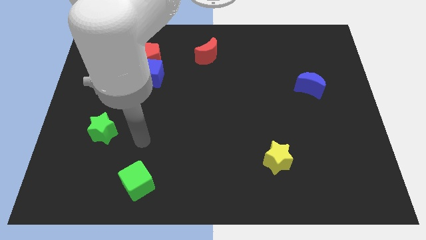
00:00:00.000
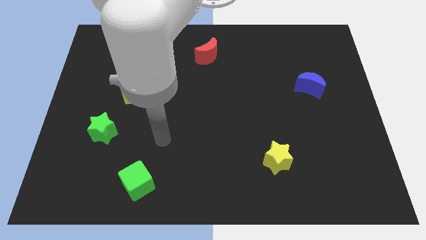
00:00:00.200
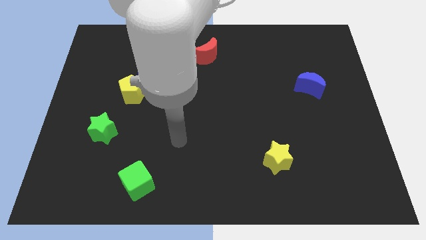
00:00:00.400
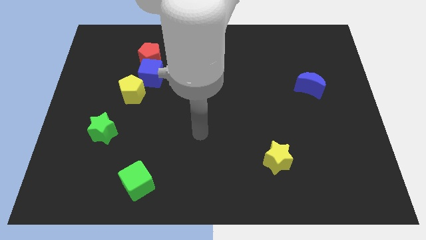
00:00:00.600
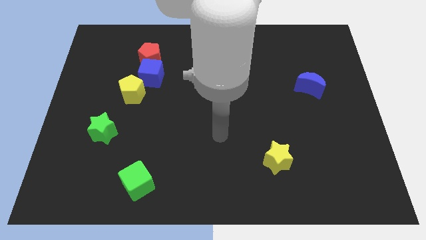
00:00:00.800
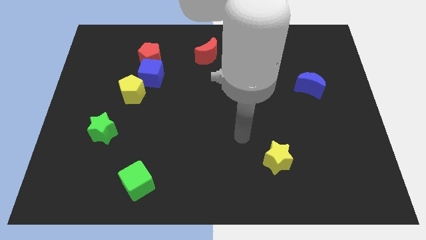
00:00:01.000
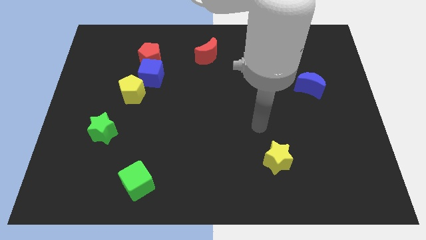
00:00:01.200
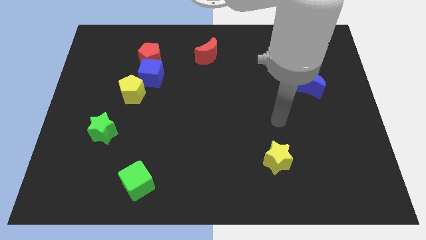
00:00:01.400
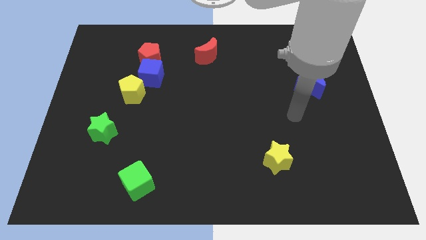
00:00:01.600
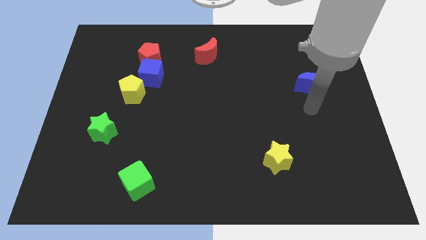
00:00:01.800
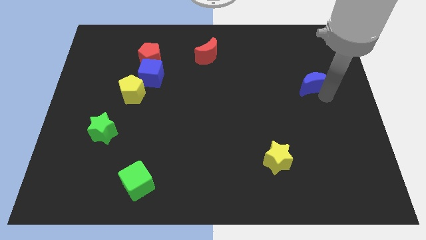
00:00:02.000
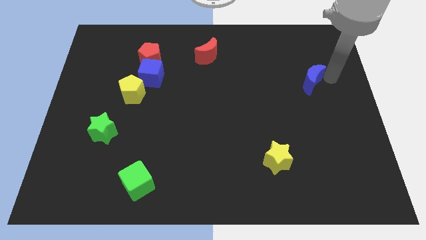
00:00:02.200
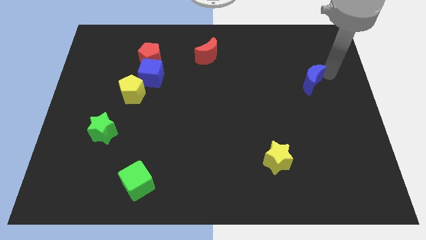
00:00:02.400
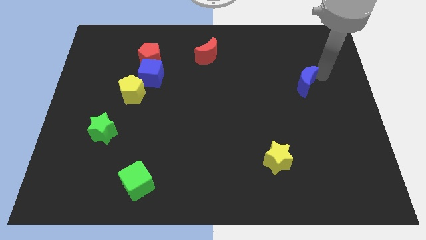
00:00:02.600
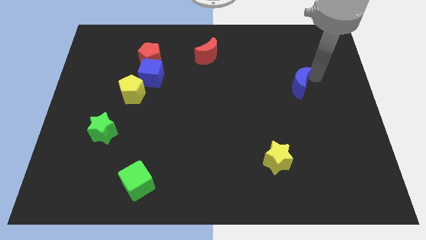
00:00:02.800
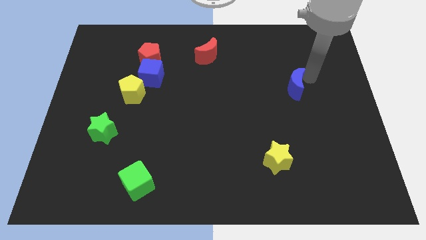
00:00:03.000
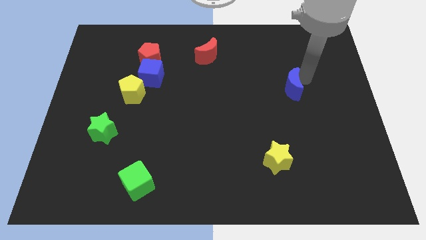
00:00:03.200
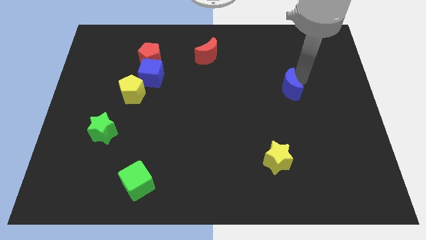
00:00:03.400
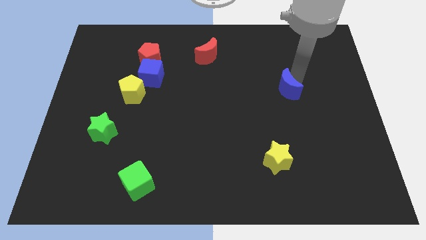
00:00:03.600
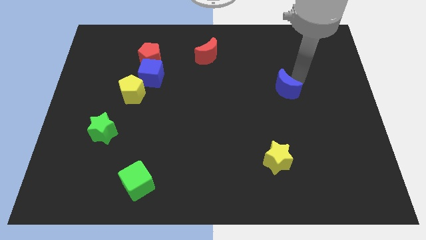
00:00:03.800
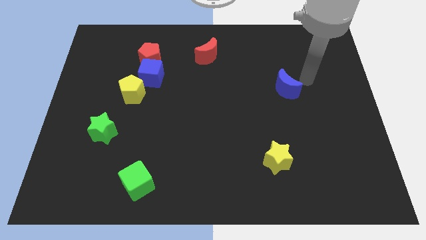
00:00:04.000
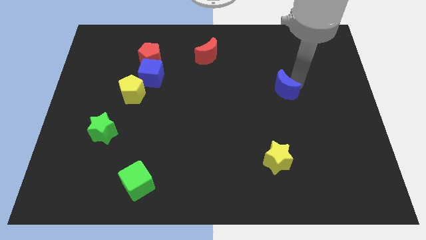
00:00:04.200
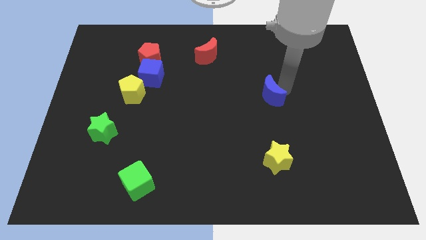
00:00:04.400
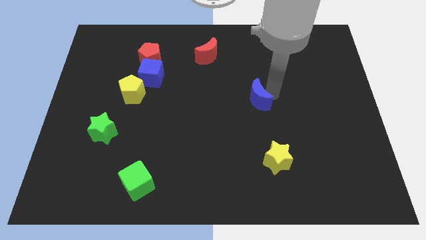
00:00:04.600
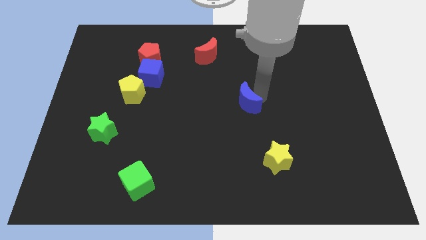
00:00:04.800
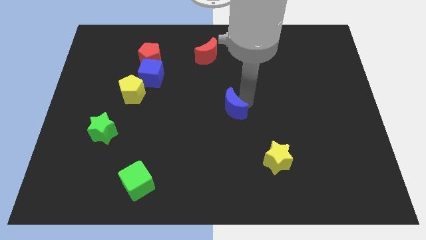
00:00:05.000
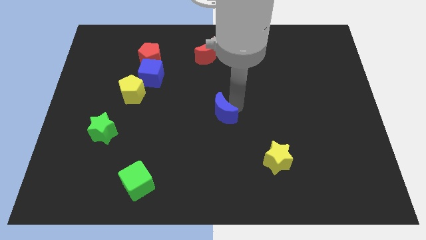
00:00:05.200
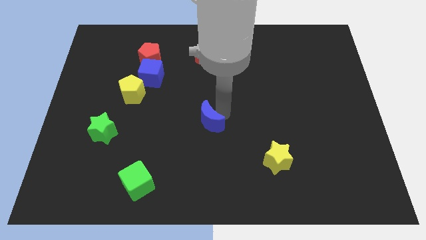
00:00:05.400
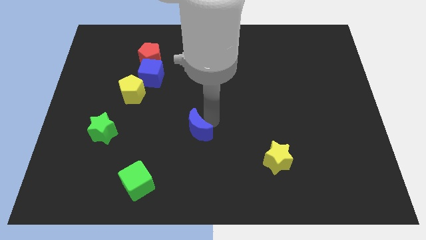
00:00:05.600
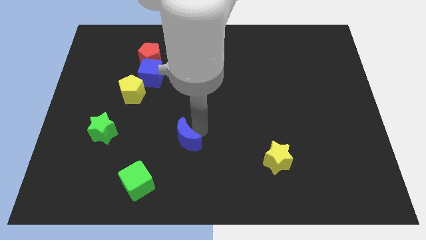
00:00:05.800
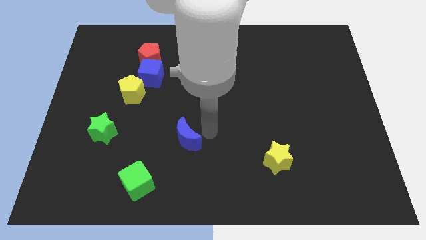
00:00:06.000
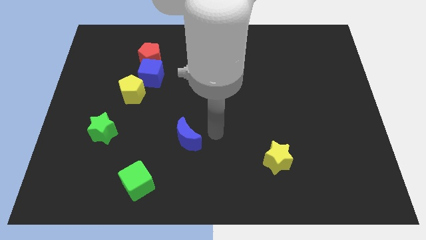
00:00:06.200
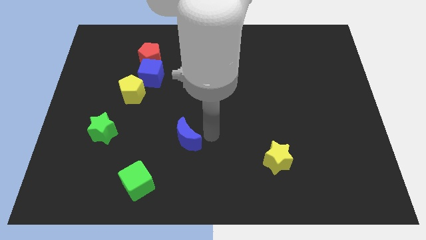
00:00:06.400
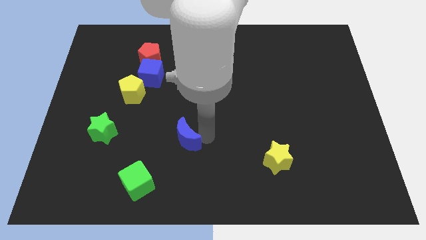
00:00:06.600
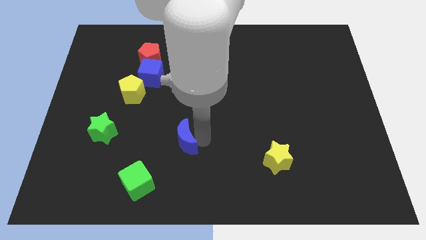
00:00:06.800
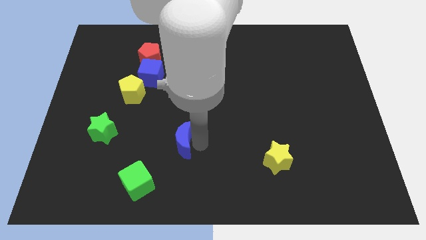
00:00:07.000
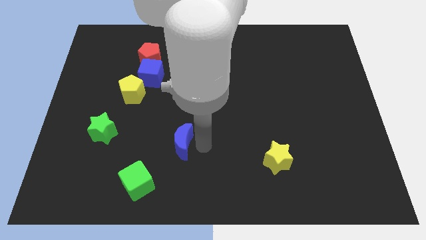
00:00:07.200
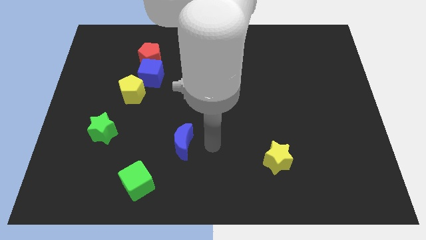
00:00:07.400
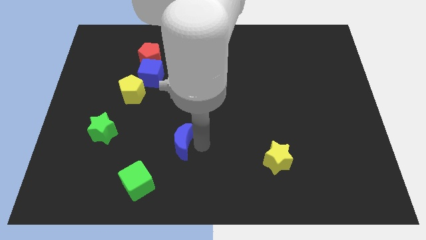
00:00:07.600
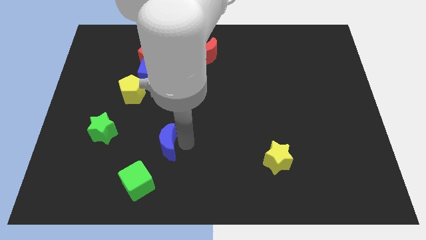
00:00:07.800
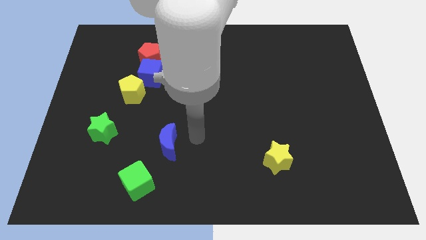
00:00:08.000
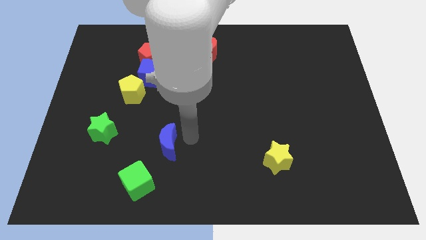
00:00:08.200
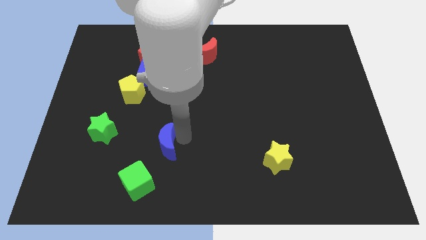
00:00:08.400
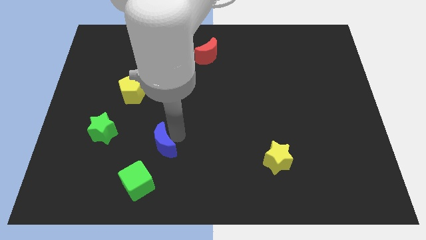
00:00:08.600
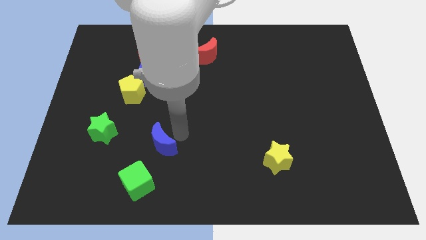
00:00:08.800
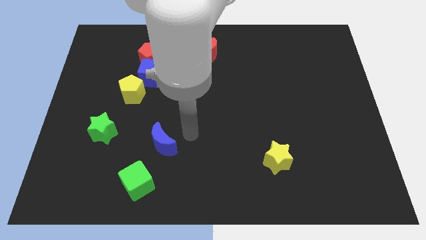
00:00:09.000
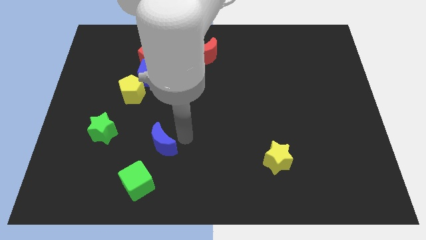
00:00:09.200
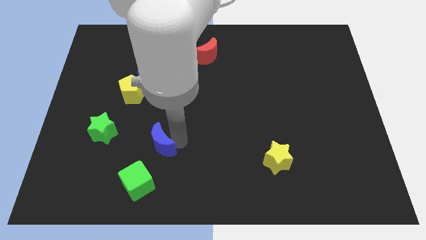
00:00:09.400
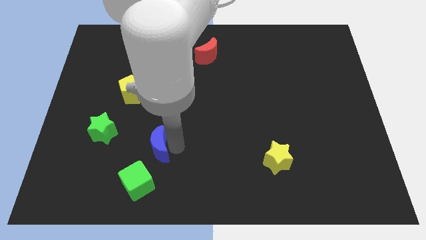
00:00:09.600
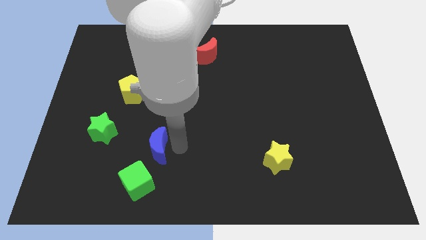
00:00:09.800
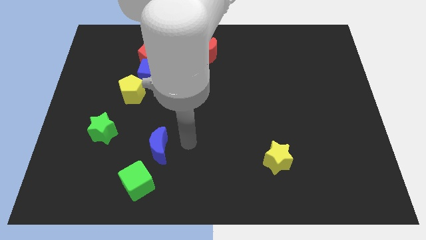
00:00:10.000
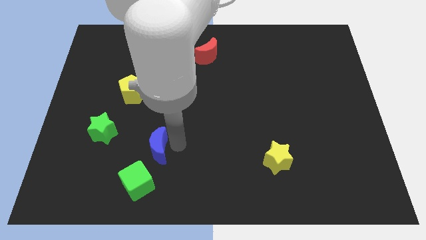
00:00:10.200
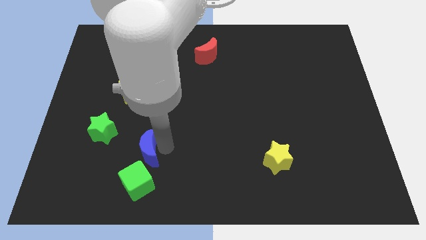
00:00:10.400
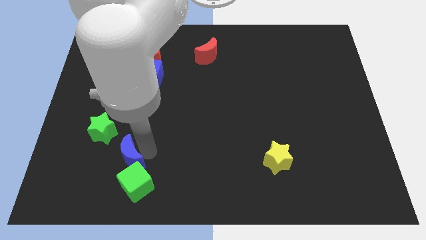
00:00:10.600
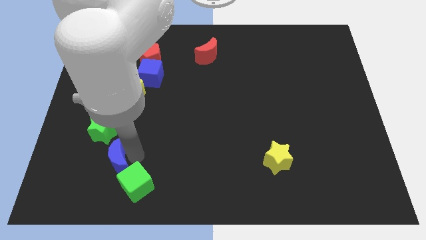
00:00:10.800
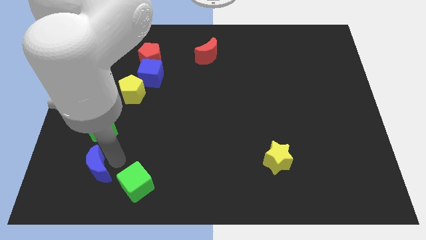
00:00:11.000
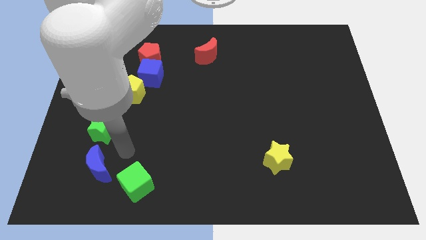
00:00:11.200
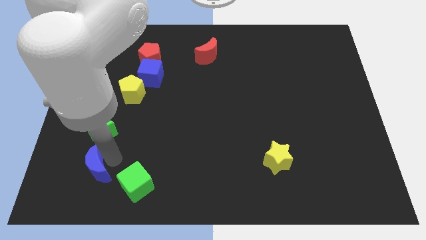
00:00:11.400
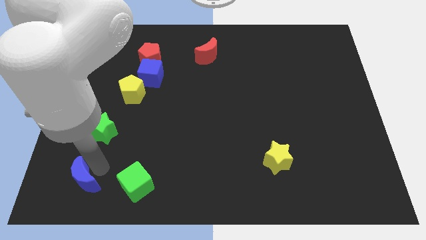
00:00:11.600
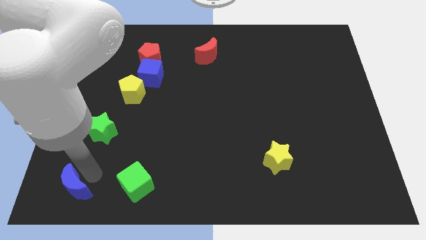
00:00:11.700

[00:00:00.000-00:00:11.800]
push the blue moon to the lower left corner
